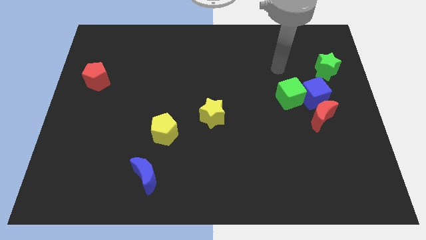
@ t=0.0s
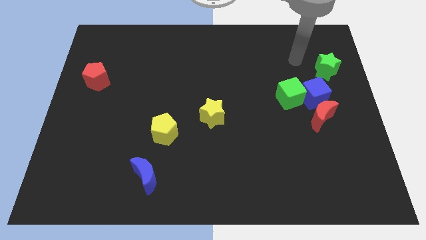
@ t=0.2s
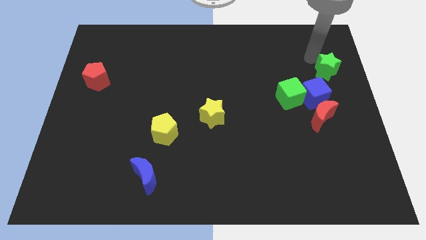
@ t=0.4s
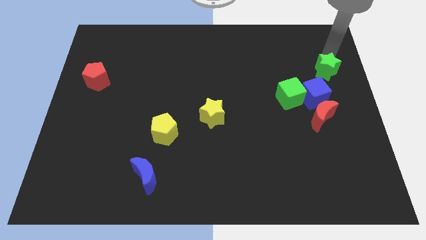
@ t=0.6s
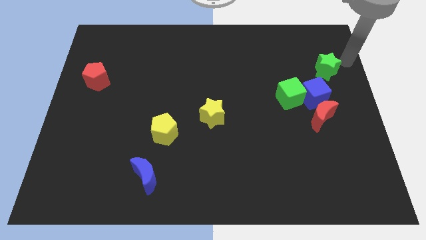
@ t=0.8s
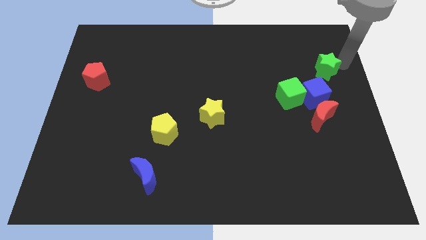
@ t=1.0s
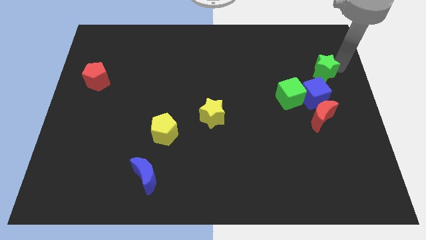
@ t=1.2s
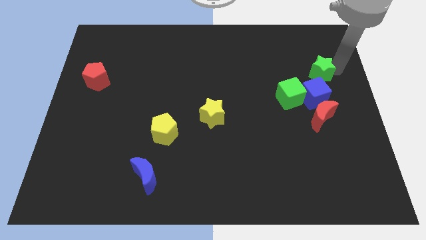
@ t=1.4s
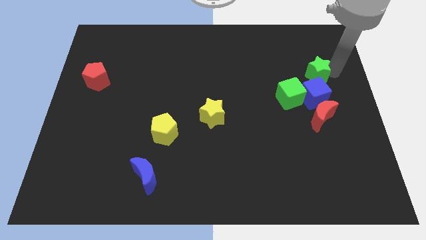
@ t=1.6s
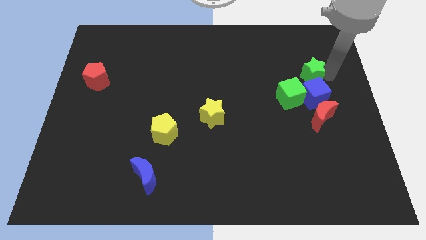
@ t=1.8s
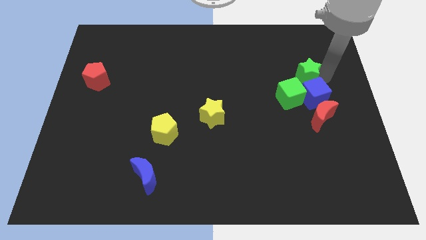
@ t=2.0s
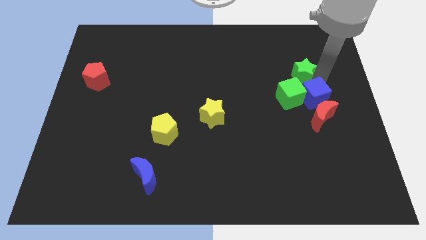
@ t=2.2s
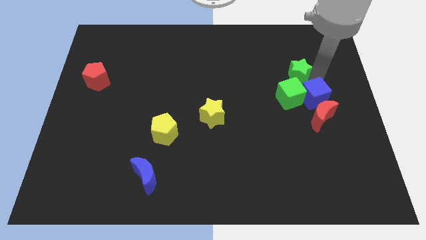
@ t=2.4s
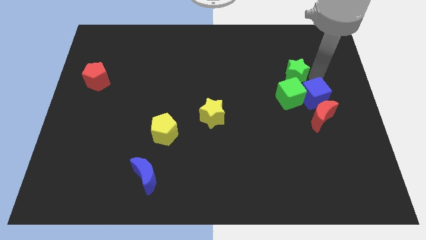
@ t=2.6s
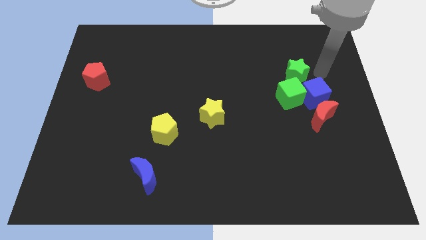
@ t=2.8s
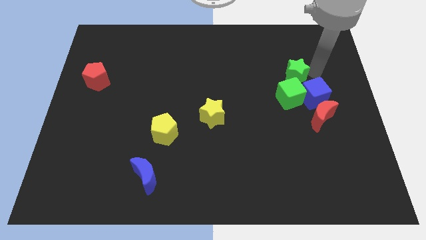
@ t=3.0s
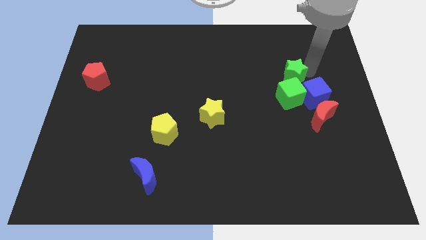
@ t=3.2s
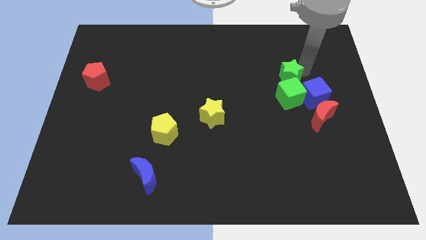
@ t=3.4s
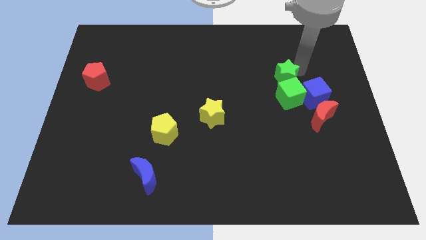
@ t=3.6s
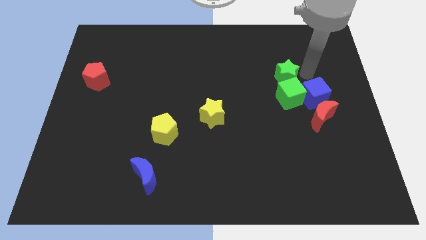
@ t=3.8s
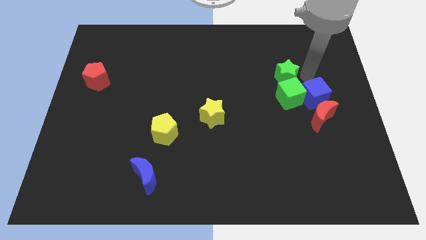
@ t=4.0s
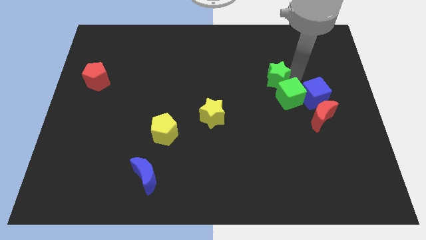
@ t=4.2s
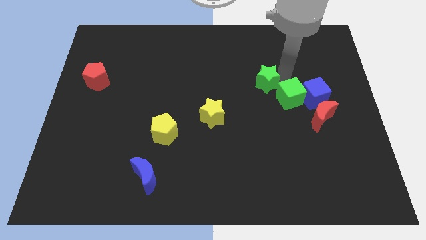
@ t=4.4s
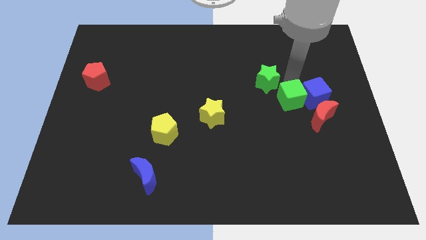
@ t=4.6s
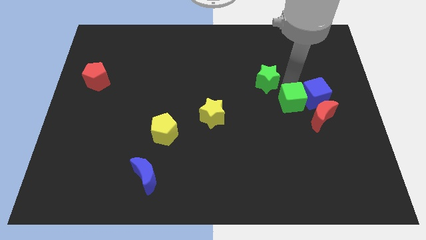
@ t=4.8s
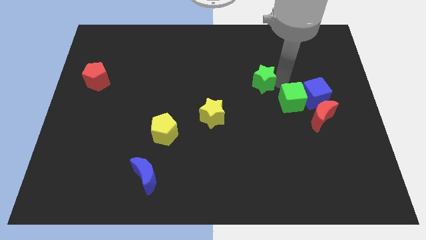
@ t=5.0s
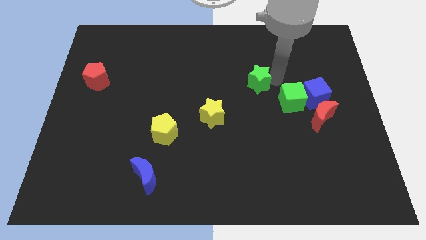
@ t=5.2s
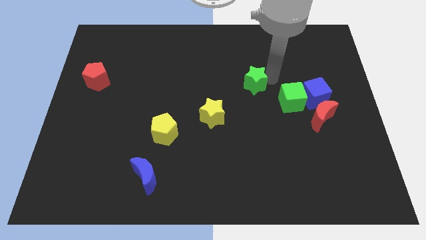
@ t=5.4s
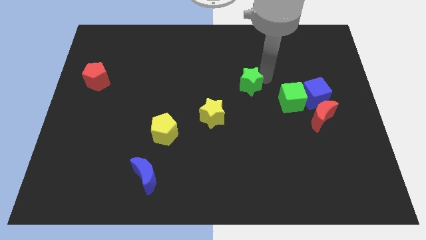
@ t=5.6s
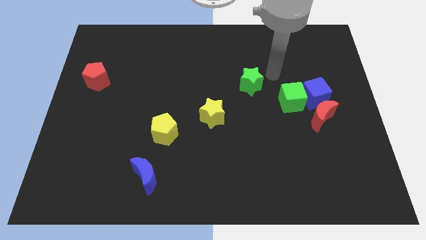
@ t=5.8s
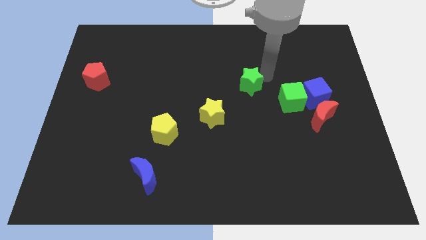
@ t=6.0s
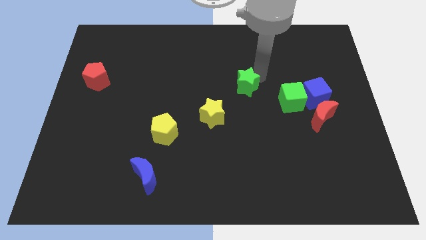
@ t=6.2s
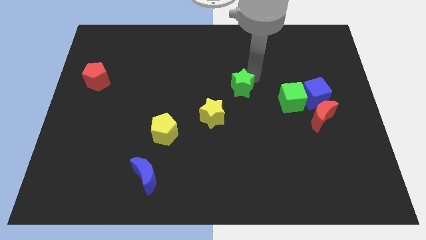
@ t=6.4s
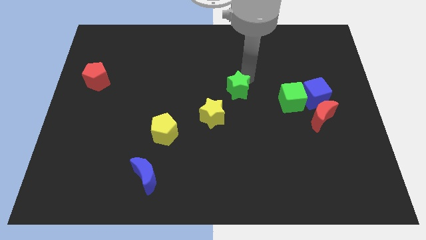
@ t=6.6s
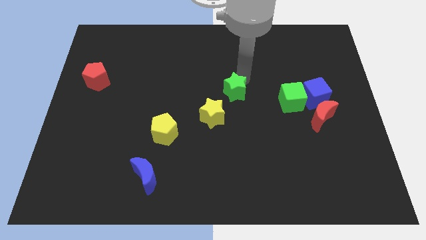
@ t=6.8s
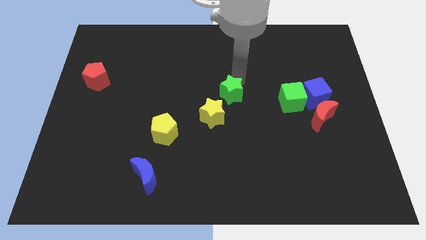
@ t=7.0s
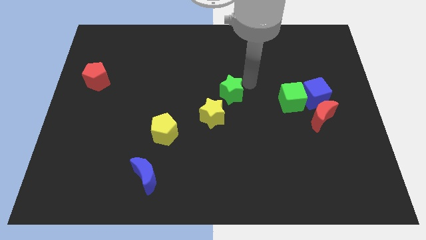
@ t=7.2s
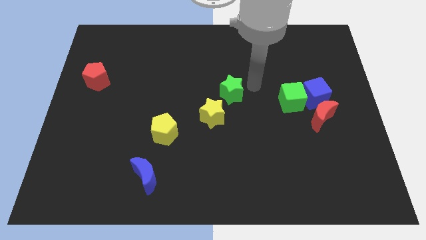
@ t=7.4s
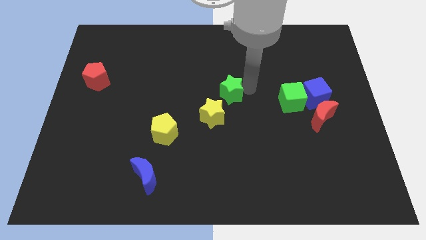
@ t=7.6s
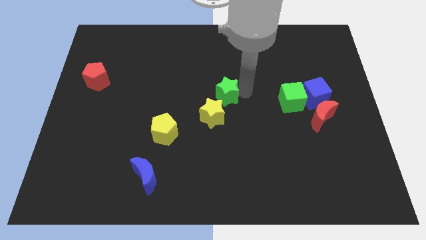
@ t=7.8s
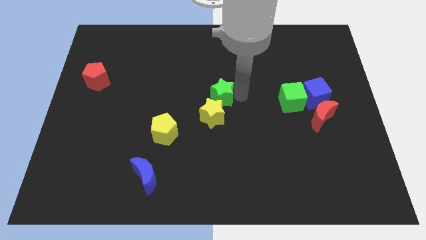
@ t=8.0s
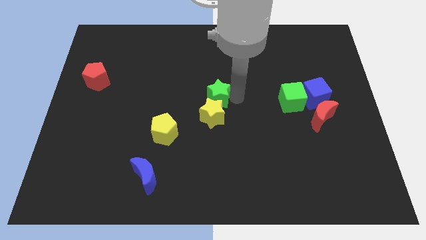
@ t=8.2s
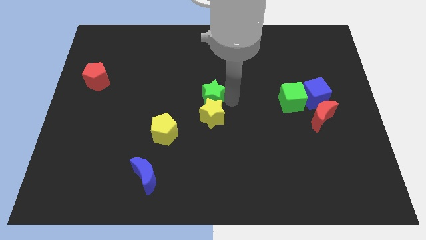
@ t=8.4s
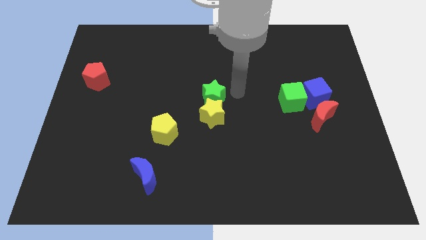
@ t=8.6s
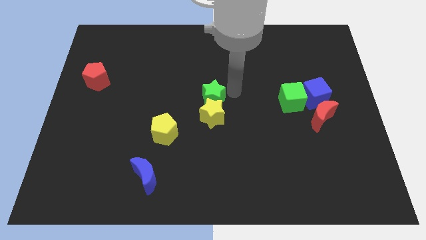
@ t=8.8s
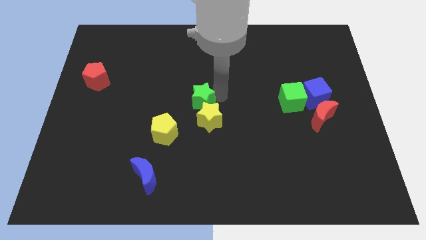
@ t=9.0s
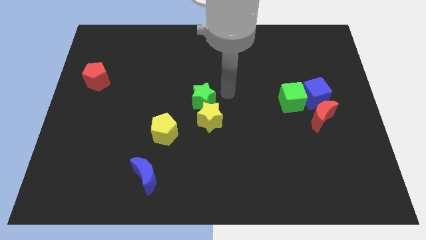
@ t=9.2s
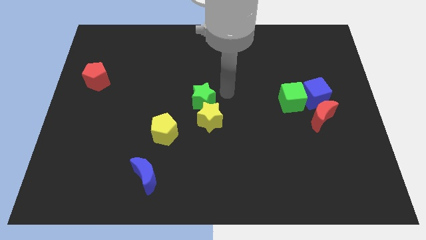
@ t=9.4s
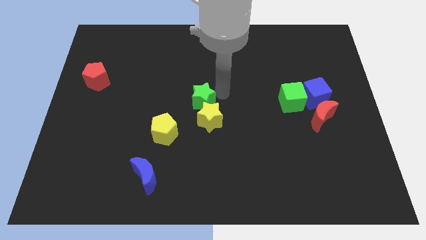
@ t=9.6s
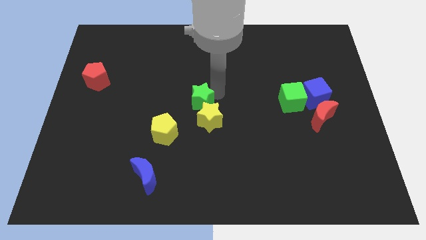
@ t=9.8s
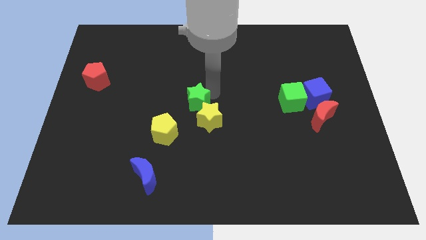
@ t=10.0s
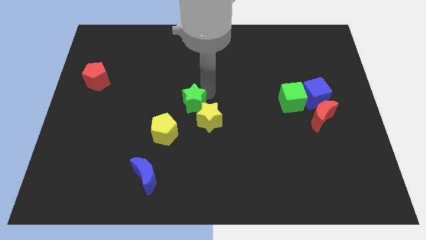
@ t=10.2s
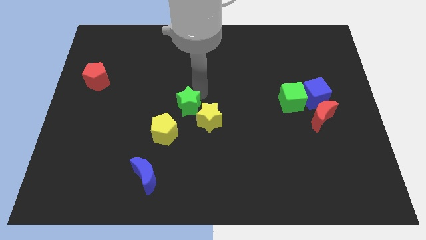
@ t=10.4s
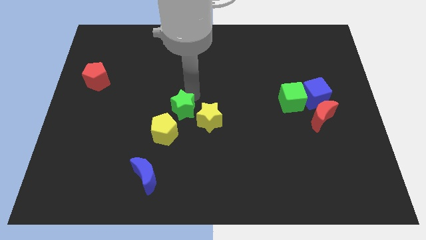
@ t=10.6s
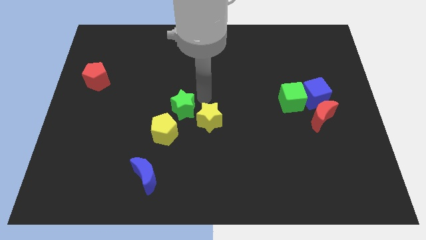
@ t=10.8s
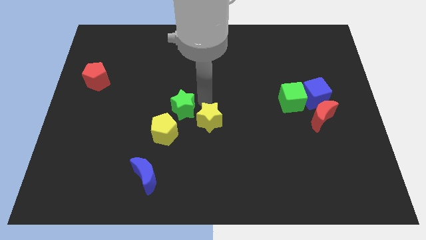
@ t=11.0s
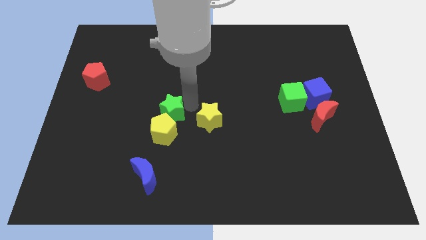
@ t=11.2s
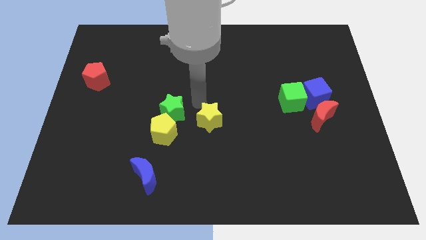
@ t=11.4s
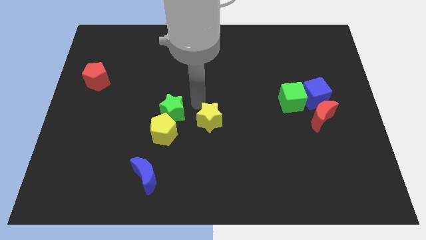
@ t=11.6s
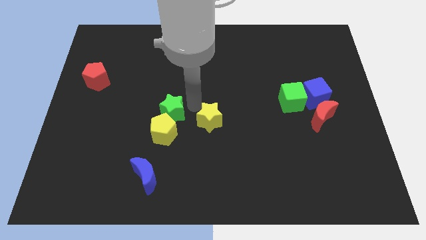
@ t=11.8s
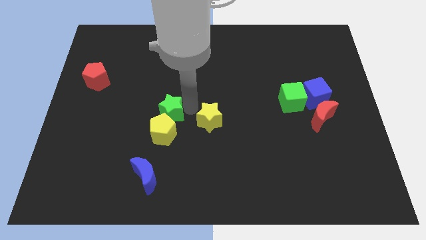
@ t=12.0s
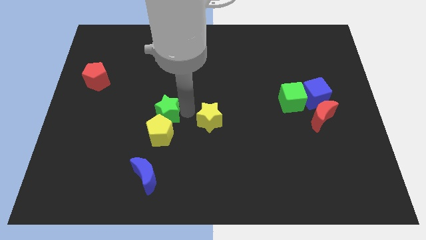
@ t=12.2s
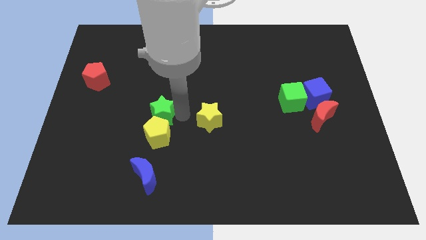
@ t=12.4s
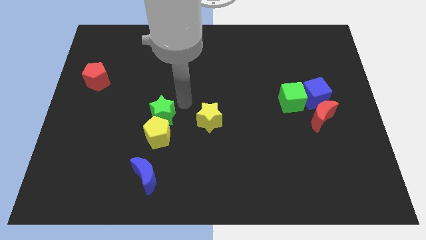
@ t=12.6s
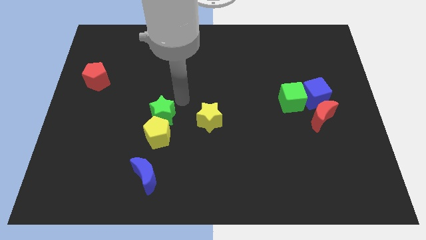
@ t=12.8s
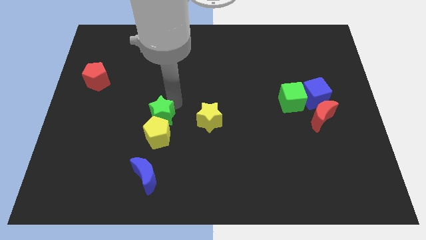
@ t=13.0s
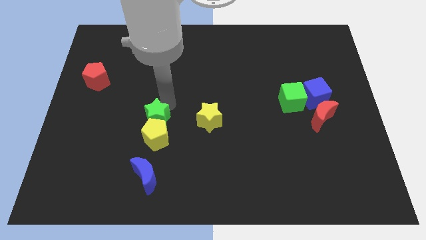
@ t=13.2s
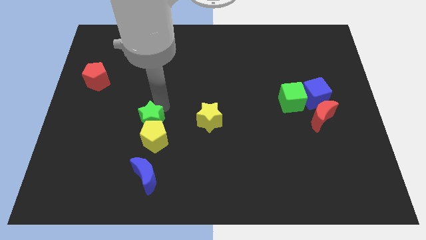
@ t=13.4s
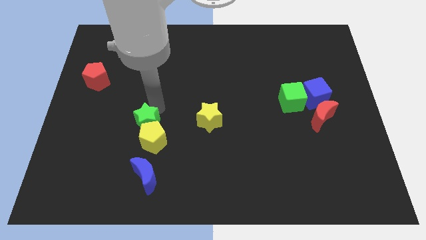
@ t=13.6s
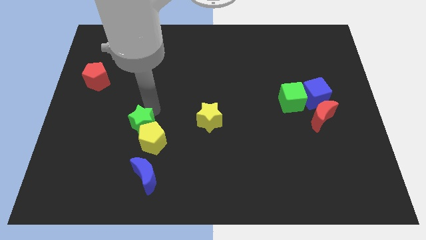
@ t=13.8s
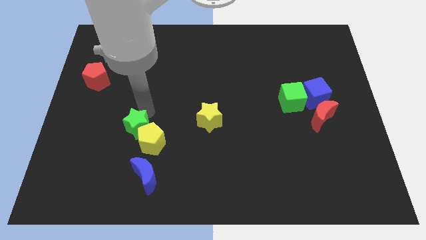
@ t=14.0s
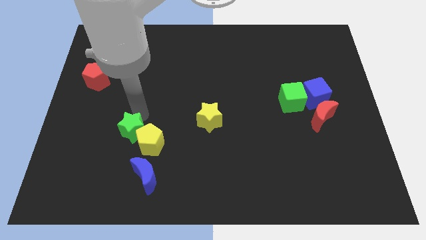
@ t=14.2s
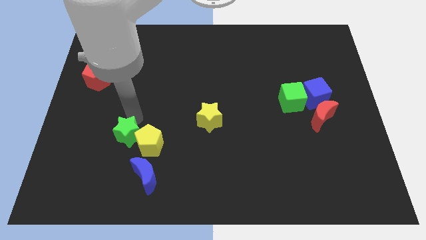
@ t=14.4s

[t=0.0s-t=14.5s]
move the green star to the top left of the blue moon
